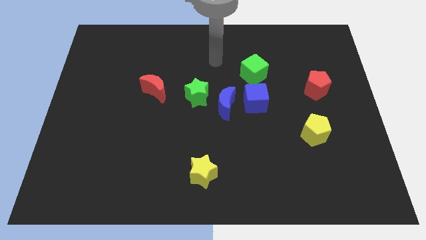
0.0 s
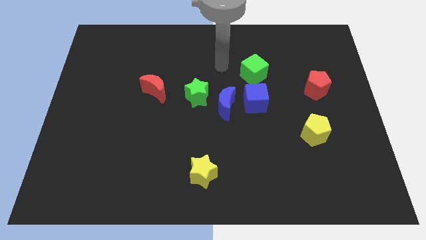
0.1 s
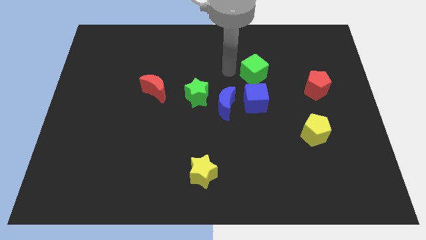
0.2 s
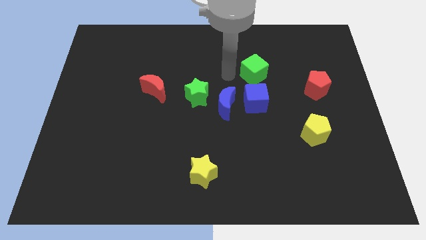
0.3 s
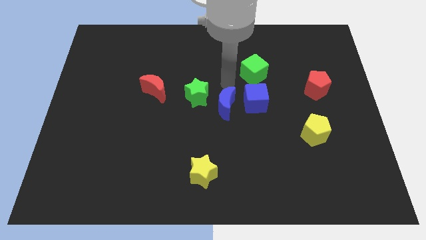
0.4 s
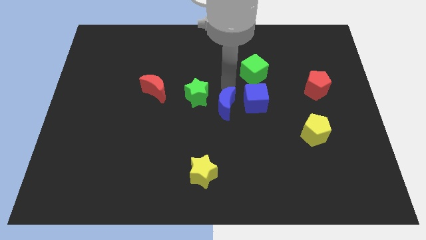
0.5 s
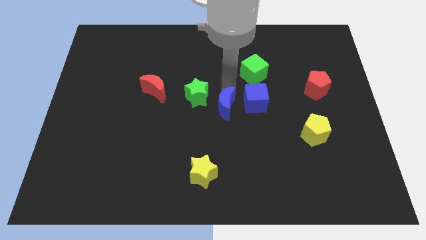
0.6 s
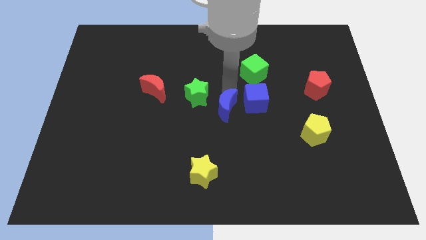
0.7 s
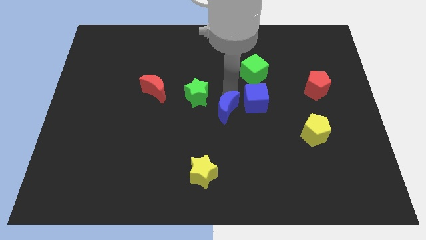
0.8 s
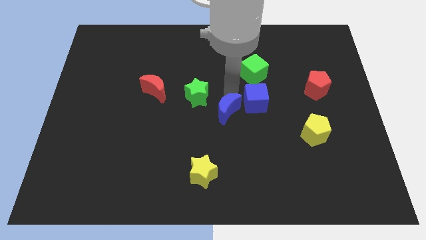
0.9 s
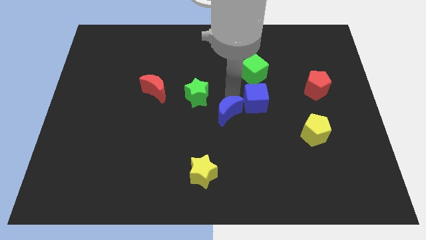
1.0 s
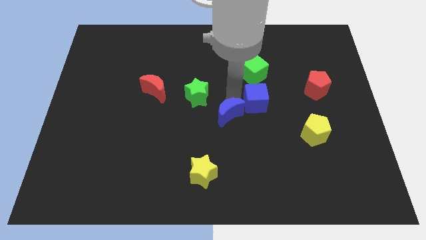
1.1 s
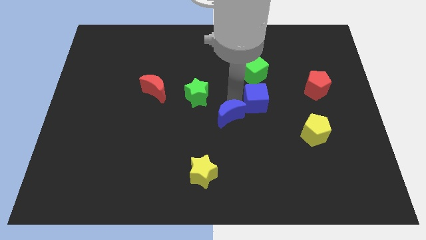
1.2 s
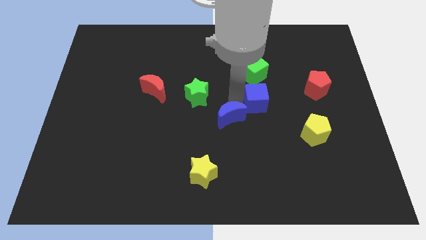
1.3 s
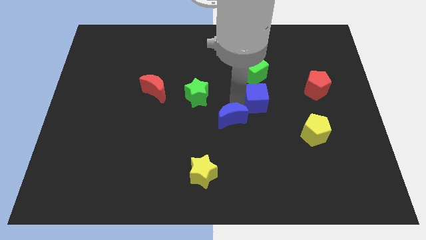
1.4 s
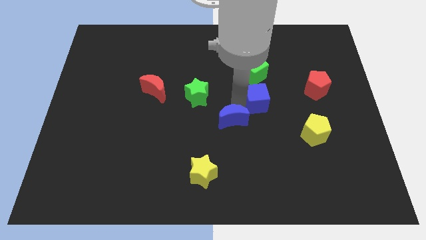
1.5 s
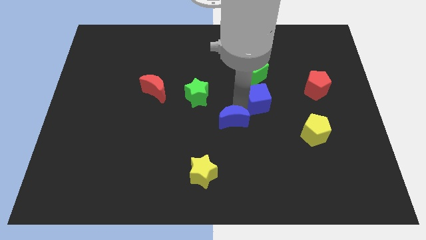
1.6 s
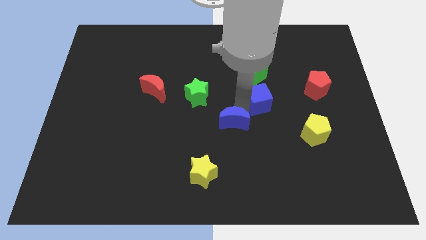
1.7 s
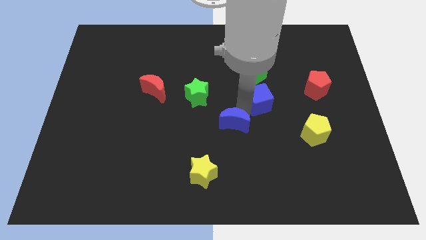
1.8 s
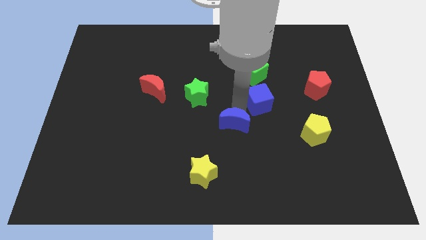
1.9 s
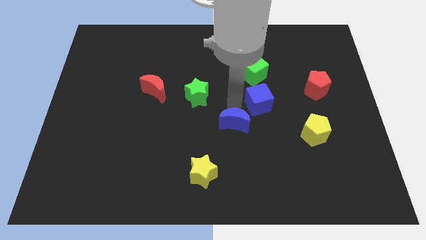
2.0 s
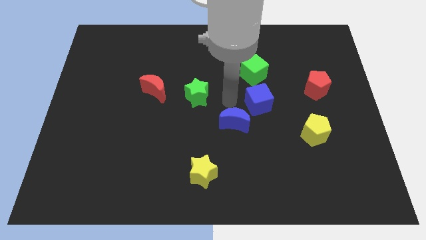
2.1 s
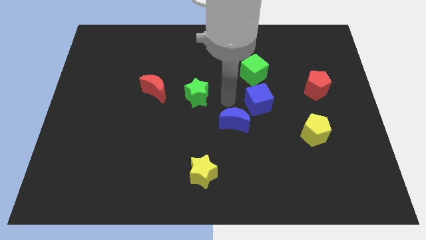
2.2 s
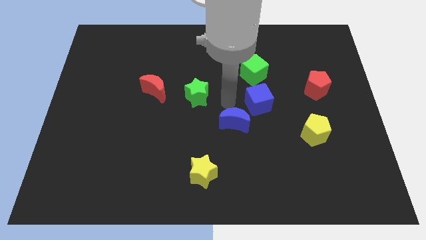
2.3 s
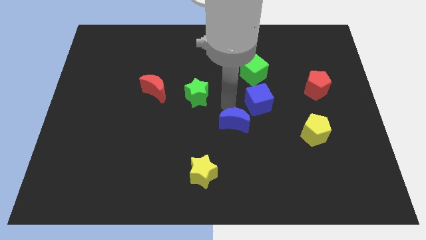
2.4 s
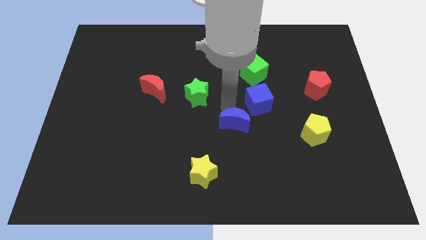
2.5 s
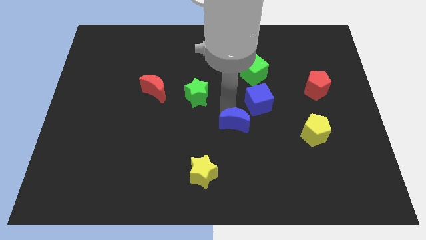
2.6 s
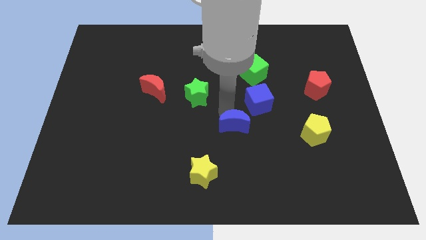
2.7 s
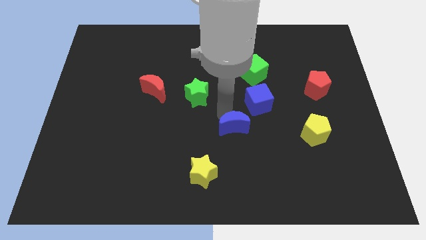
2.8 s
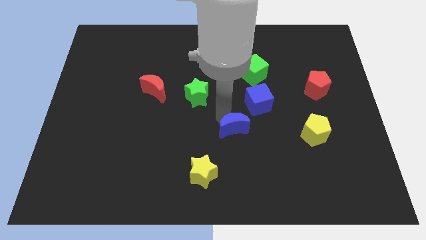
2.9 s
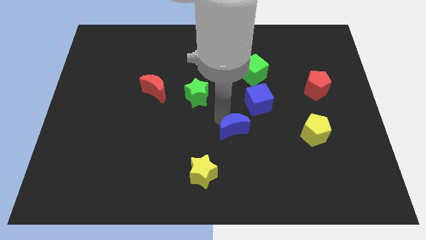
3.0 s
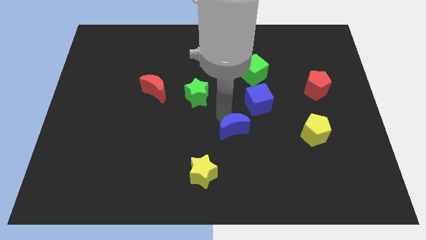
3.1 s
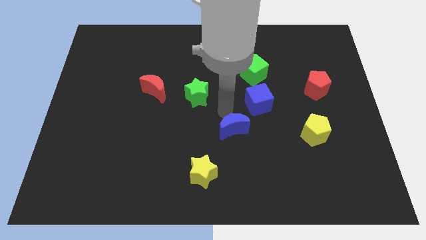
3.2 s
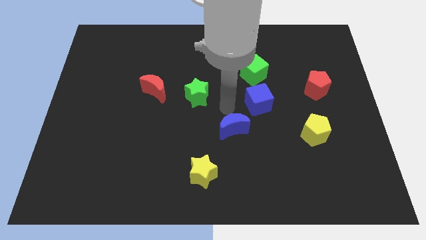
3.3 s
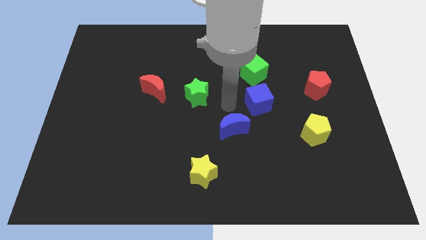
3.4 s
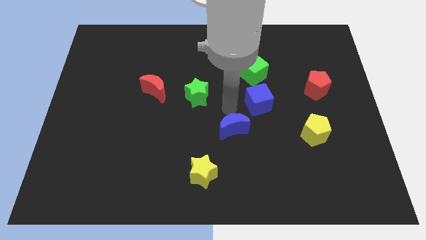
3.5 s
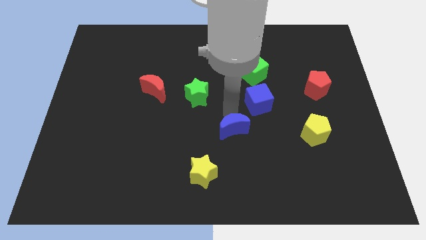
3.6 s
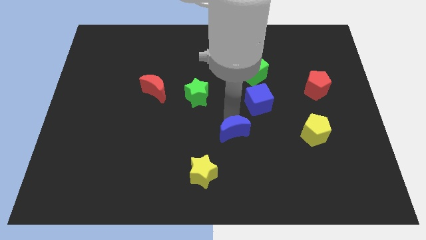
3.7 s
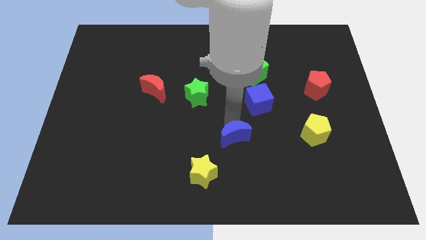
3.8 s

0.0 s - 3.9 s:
pull the blue moon apart from the green star and blue cube

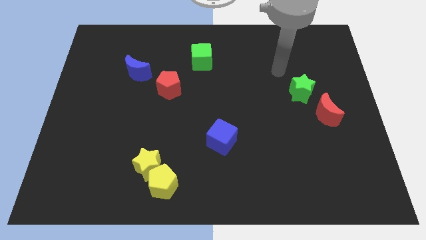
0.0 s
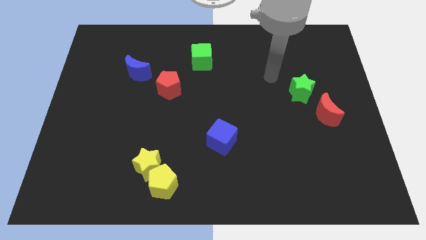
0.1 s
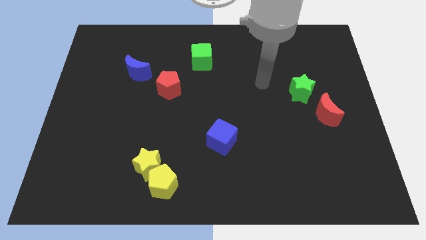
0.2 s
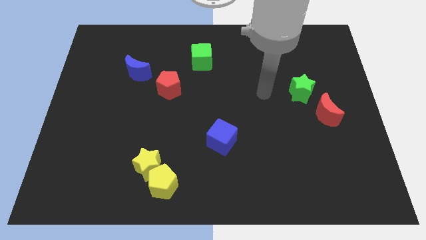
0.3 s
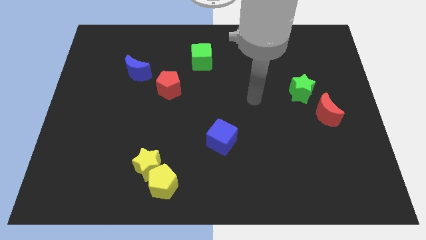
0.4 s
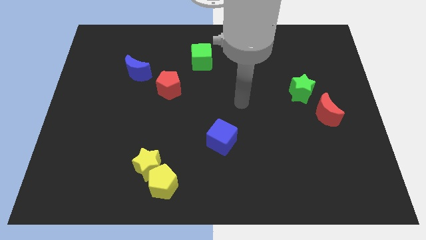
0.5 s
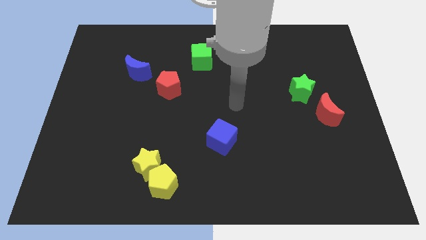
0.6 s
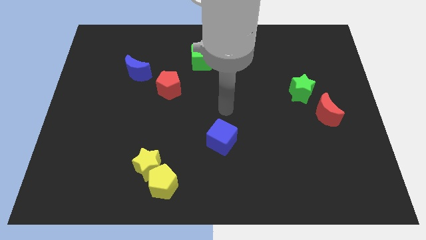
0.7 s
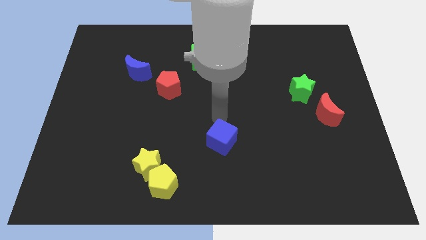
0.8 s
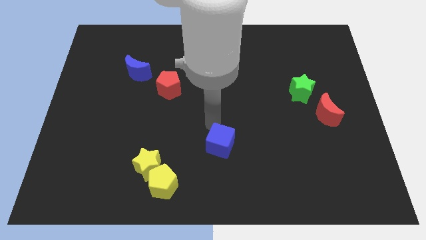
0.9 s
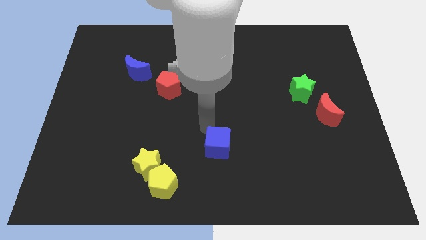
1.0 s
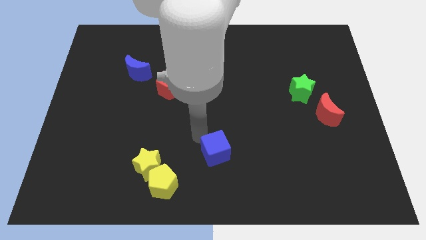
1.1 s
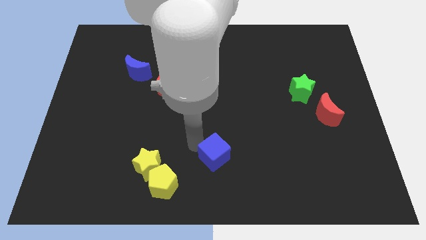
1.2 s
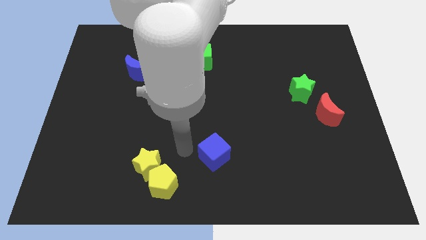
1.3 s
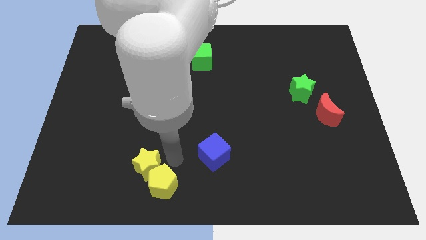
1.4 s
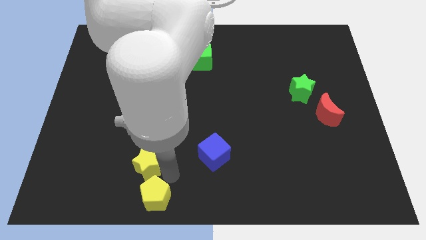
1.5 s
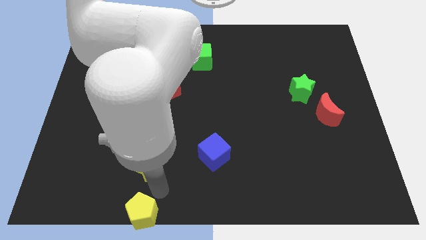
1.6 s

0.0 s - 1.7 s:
separate the yellow star from the yellow pentagon

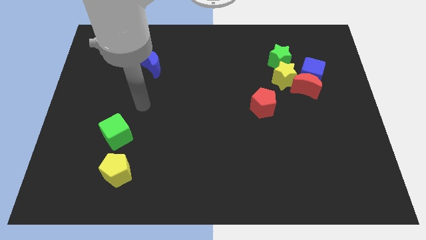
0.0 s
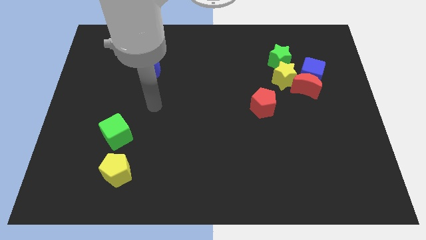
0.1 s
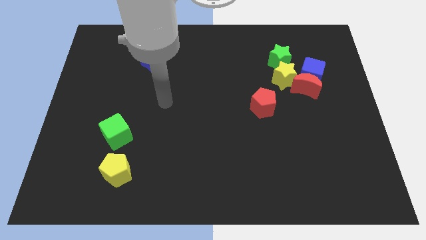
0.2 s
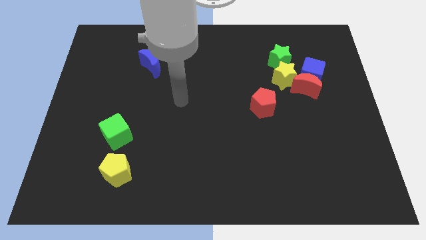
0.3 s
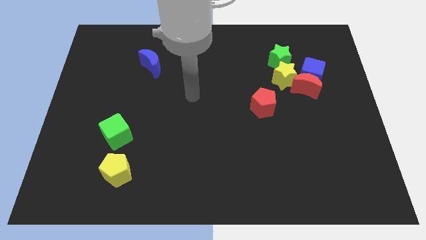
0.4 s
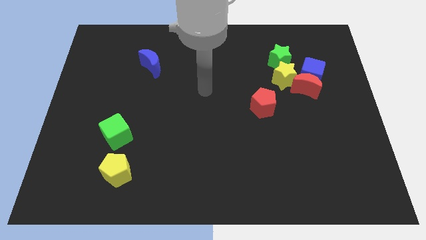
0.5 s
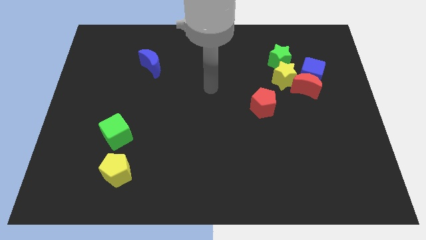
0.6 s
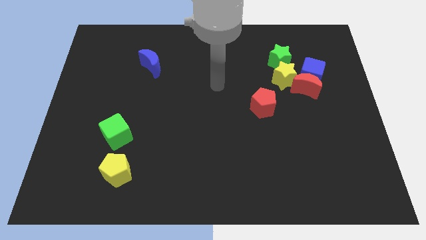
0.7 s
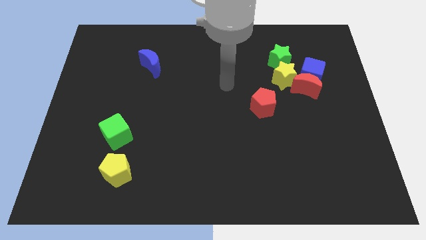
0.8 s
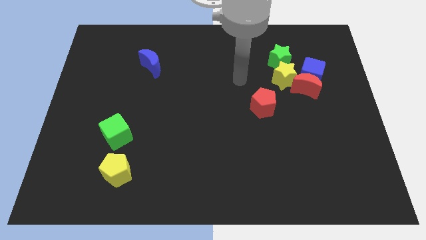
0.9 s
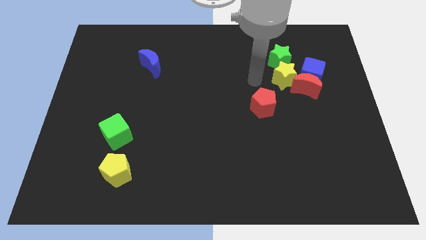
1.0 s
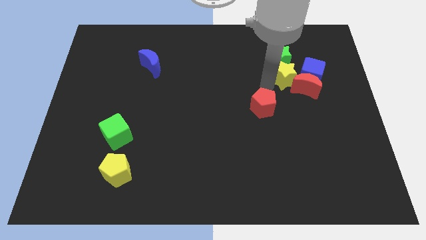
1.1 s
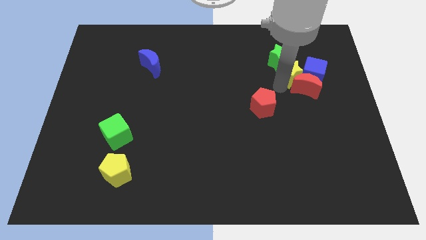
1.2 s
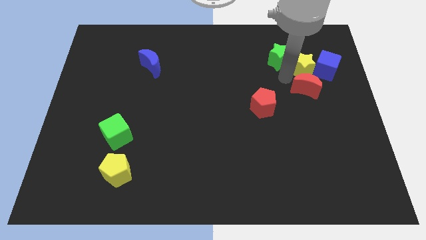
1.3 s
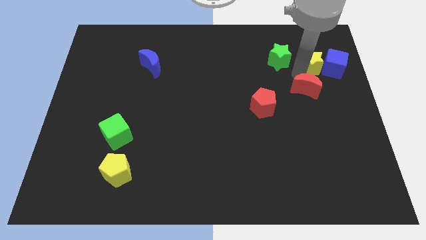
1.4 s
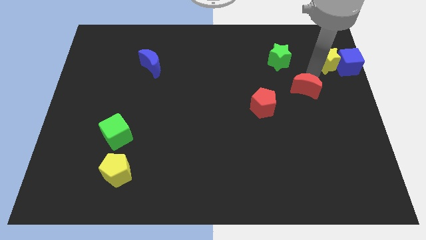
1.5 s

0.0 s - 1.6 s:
separate the red moon from the blue cube and yellow star

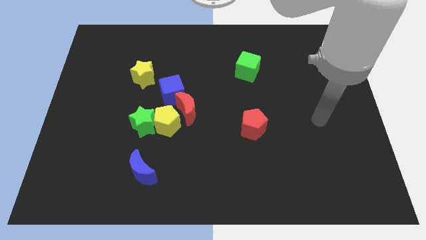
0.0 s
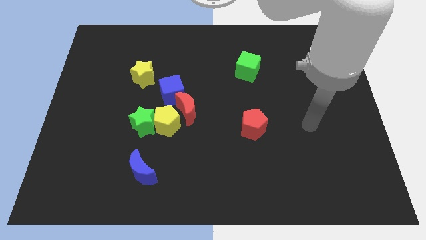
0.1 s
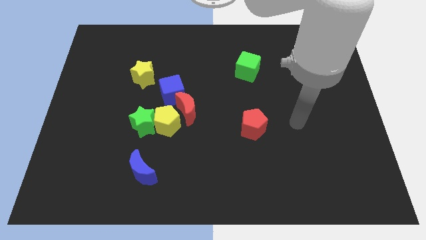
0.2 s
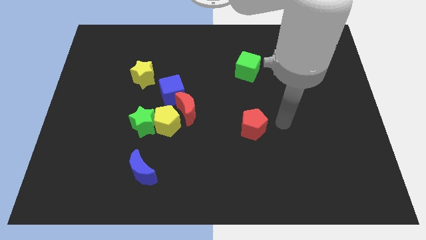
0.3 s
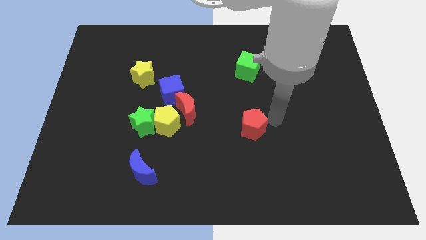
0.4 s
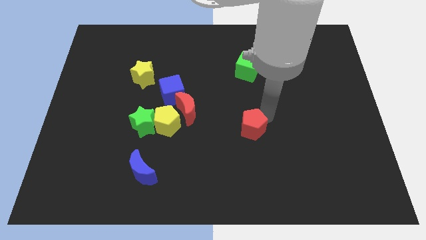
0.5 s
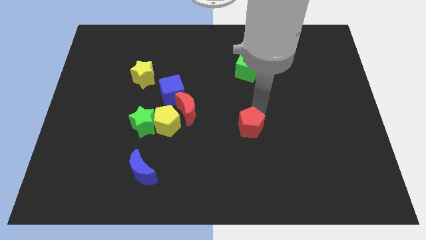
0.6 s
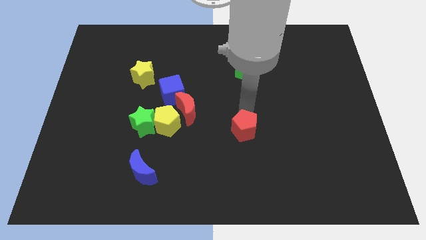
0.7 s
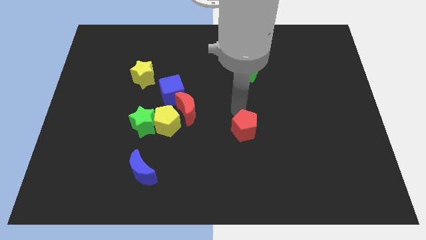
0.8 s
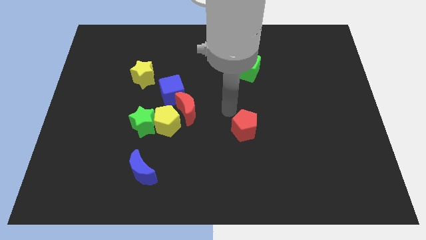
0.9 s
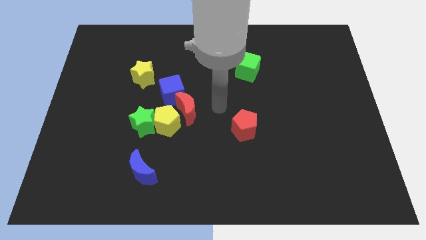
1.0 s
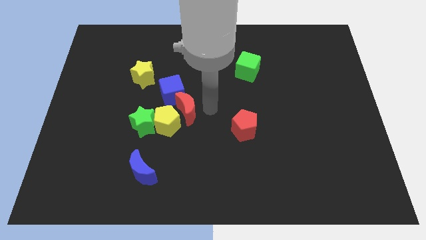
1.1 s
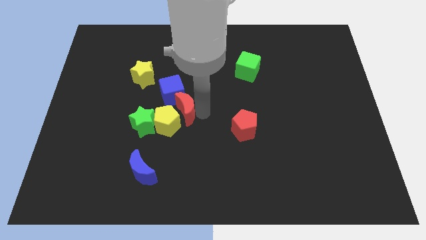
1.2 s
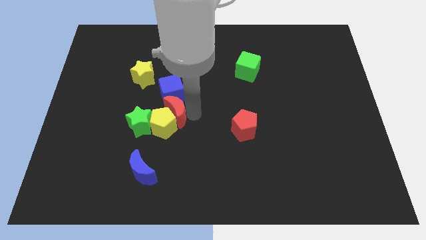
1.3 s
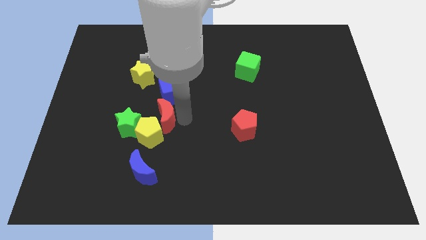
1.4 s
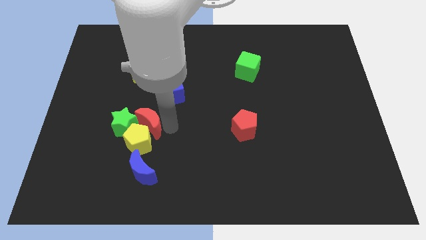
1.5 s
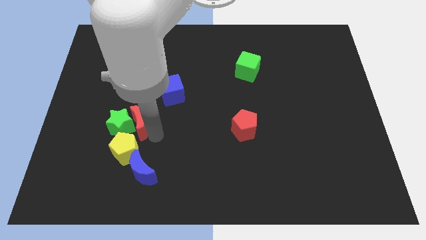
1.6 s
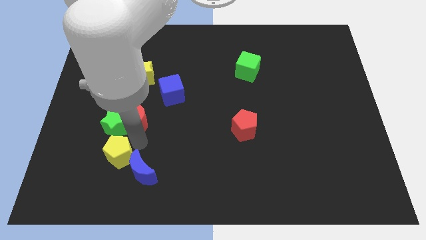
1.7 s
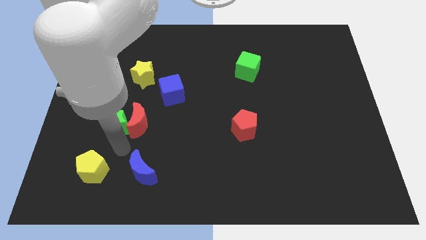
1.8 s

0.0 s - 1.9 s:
separate the green star from the yellow pentagon

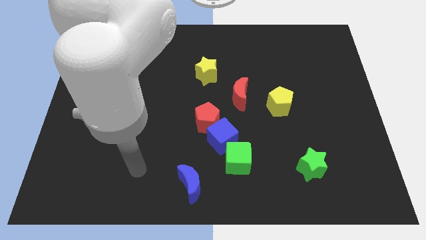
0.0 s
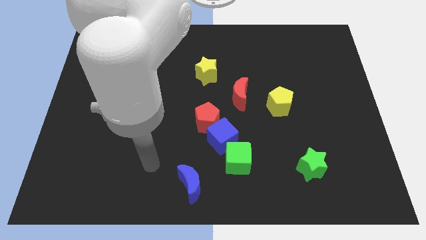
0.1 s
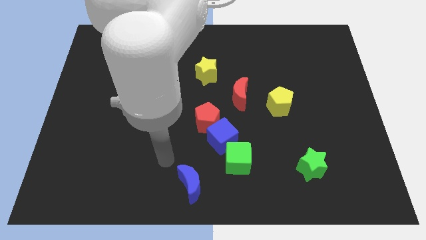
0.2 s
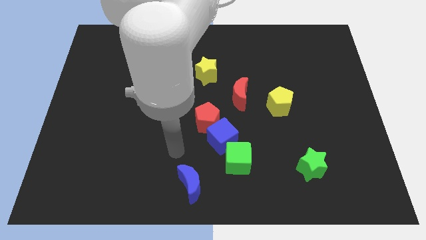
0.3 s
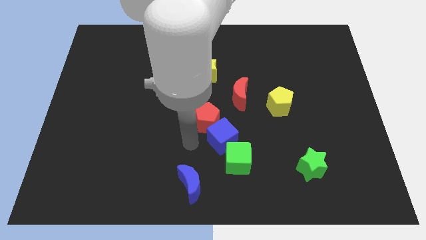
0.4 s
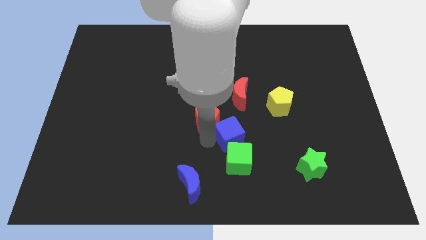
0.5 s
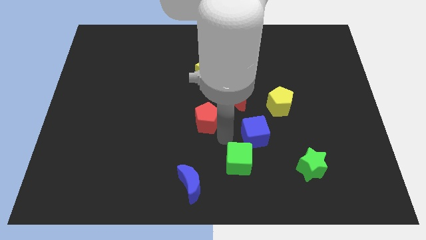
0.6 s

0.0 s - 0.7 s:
separate the red pentagon from the blue cube
